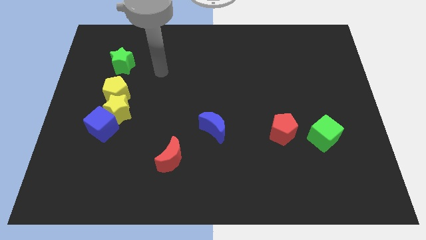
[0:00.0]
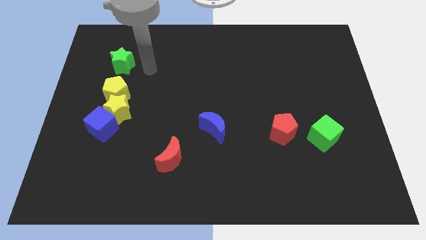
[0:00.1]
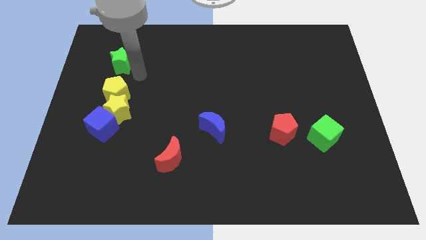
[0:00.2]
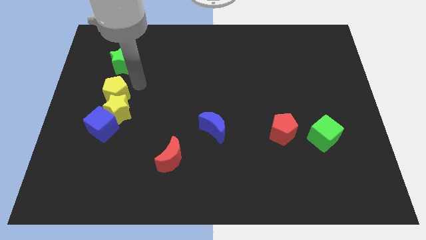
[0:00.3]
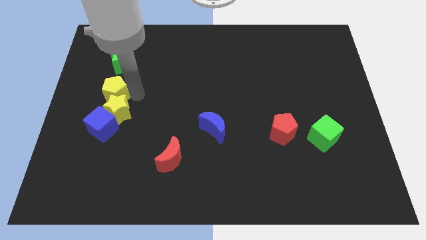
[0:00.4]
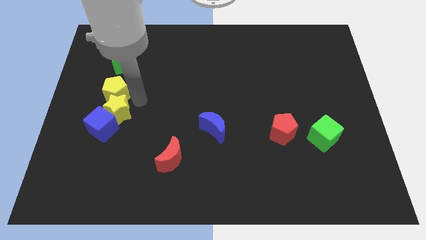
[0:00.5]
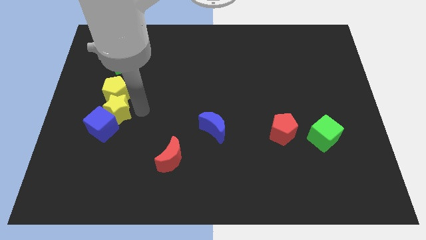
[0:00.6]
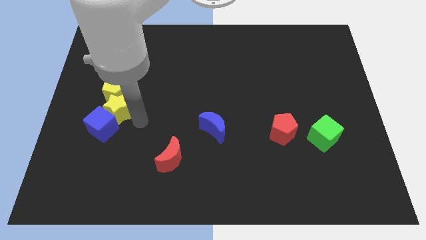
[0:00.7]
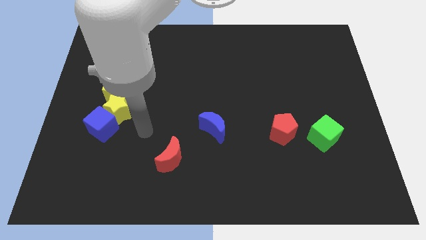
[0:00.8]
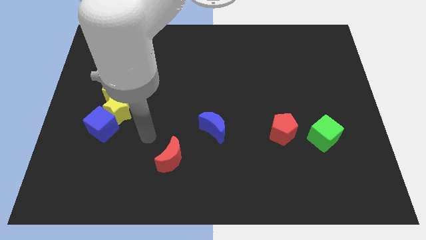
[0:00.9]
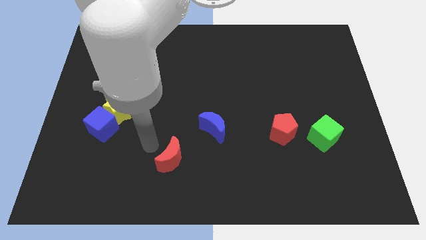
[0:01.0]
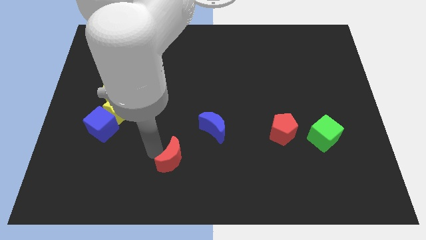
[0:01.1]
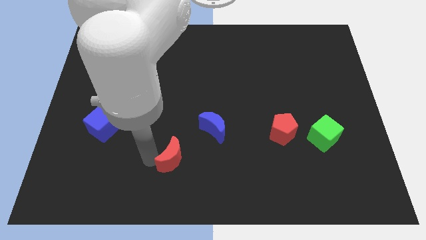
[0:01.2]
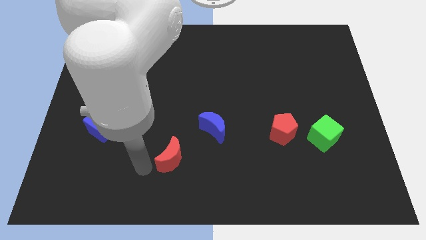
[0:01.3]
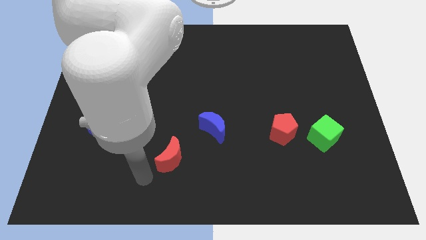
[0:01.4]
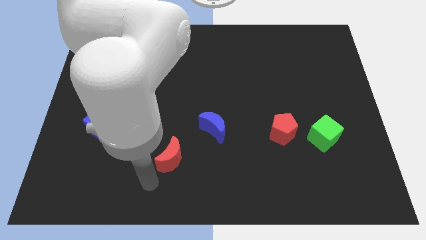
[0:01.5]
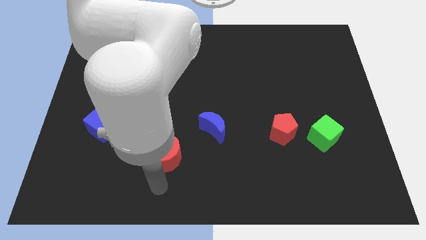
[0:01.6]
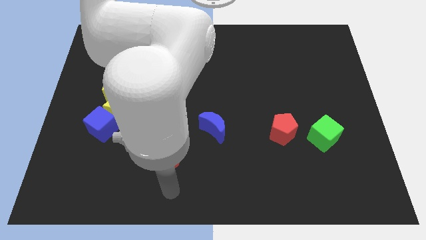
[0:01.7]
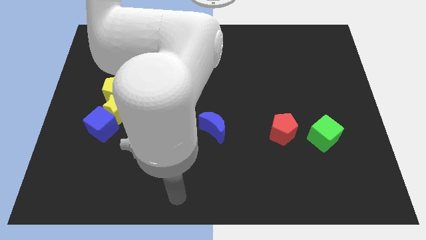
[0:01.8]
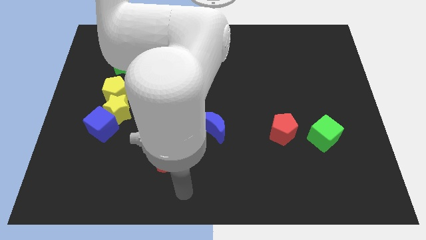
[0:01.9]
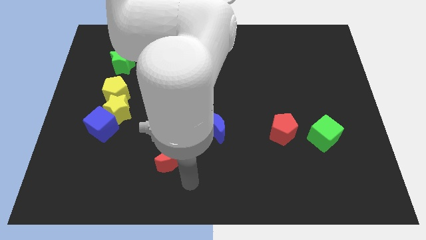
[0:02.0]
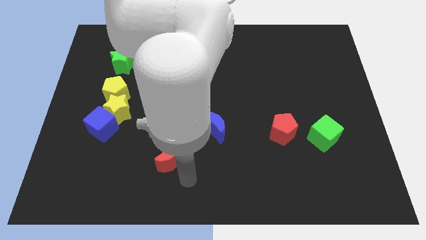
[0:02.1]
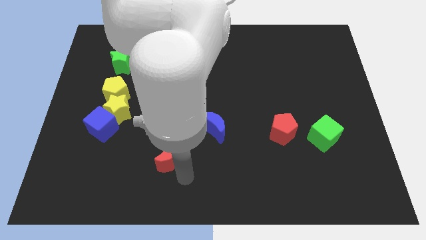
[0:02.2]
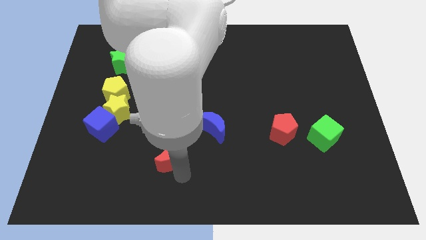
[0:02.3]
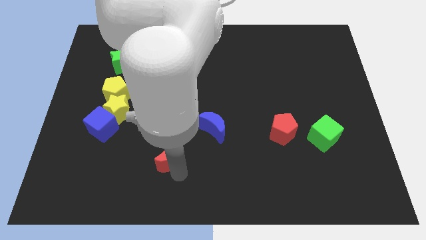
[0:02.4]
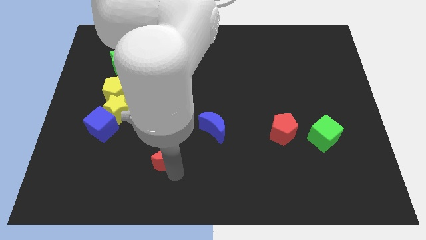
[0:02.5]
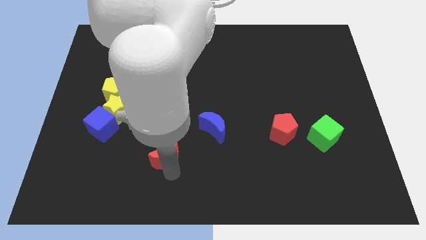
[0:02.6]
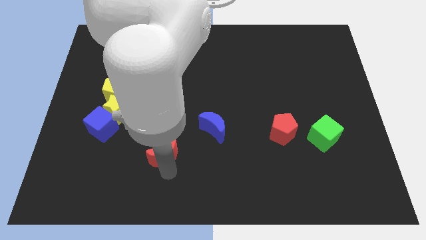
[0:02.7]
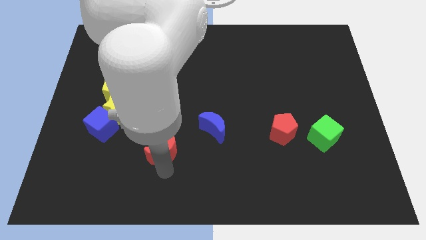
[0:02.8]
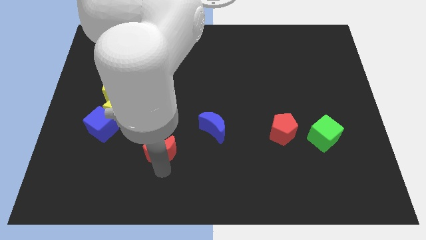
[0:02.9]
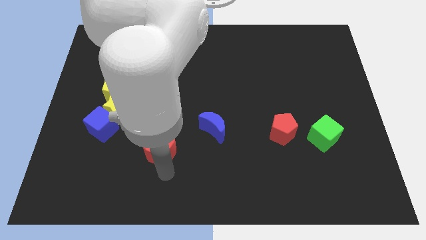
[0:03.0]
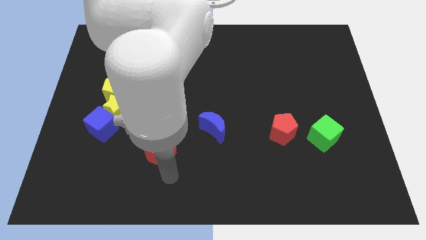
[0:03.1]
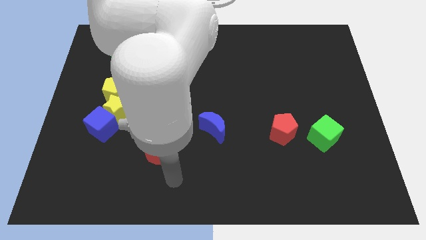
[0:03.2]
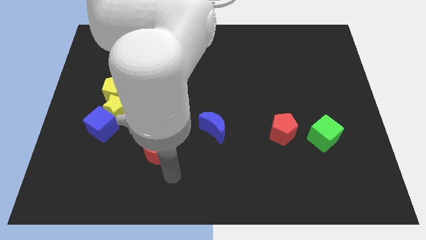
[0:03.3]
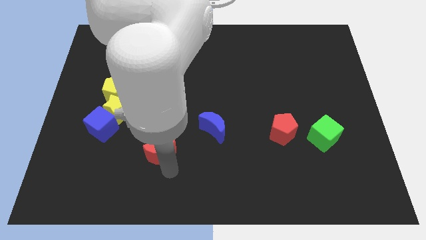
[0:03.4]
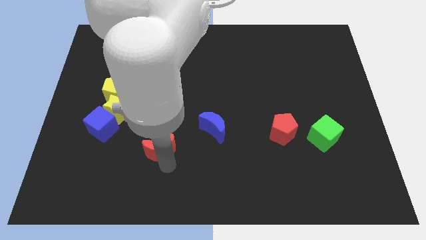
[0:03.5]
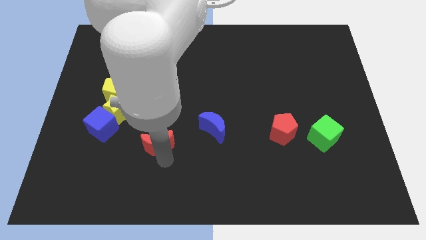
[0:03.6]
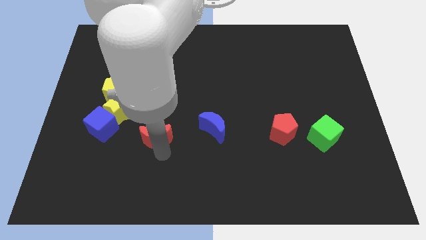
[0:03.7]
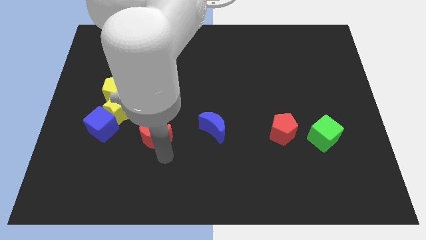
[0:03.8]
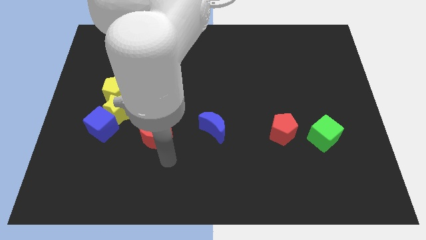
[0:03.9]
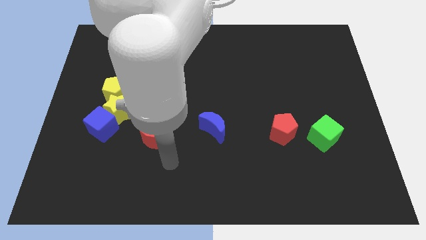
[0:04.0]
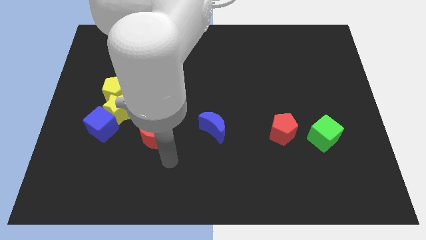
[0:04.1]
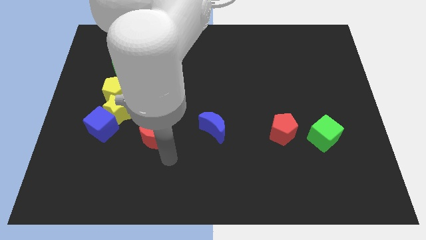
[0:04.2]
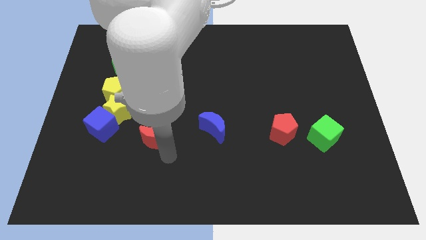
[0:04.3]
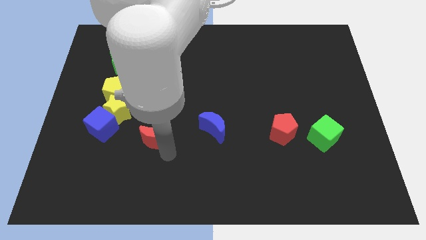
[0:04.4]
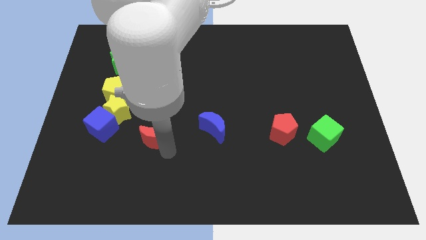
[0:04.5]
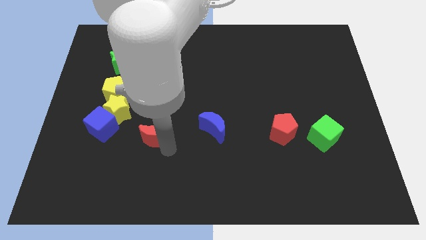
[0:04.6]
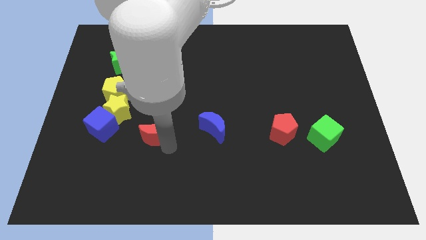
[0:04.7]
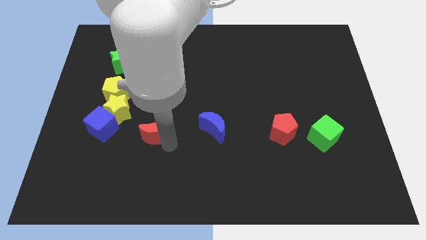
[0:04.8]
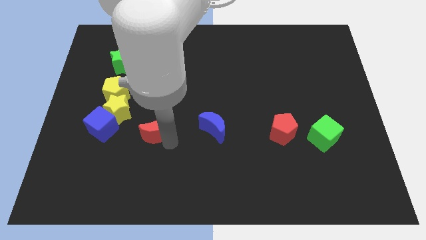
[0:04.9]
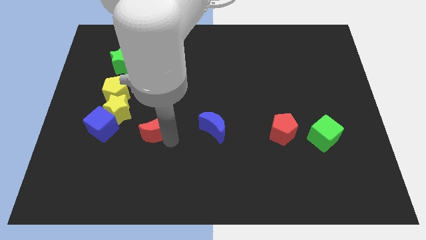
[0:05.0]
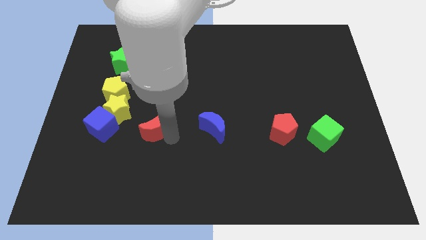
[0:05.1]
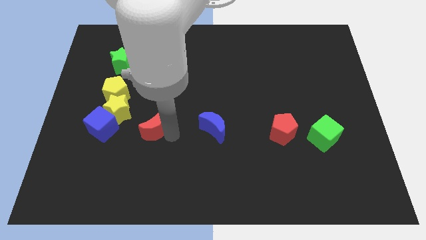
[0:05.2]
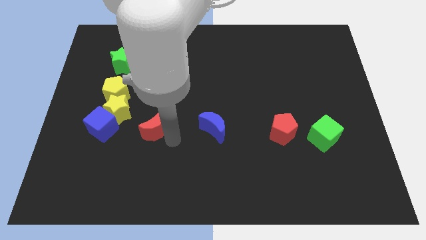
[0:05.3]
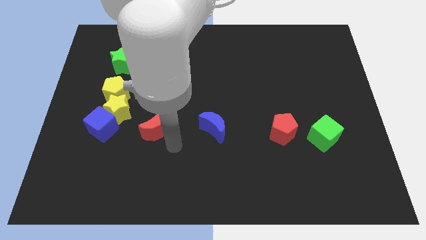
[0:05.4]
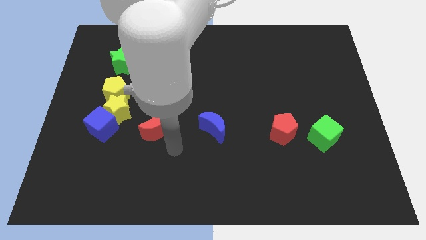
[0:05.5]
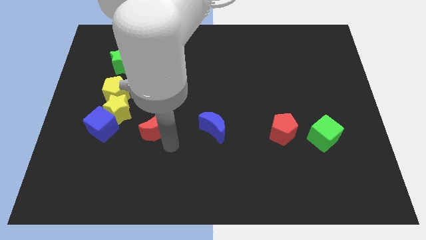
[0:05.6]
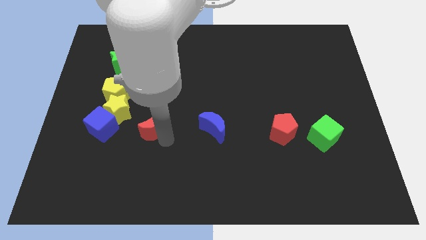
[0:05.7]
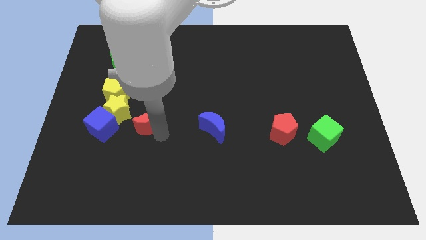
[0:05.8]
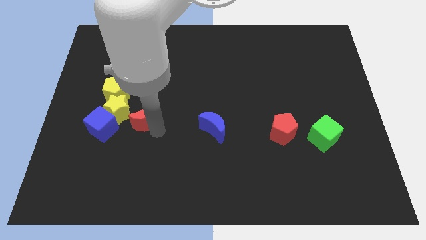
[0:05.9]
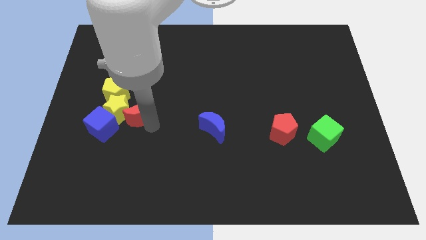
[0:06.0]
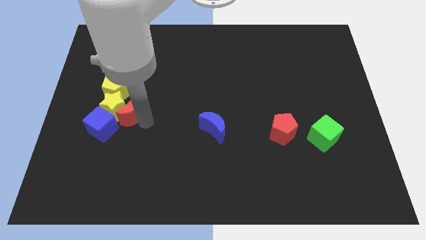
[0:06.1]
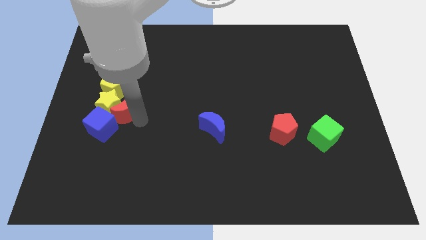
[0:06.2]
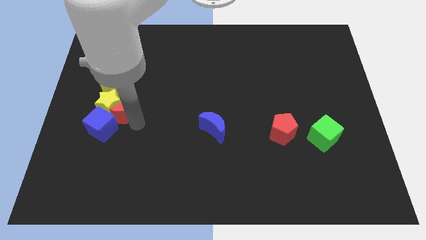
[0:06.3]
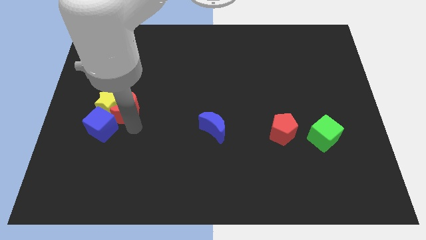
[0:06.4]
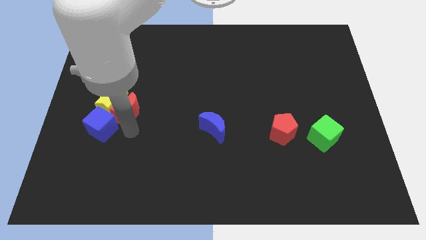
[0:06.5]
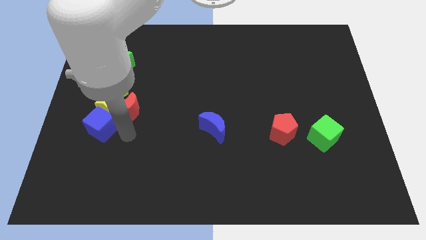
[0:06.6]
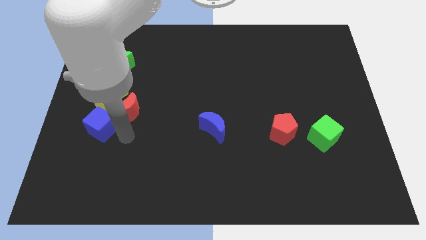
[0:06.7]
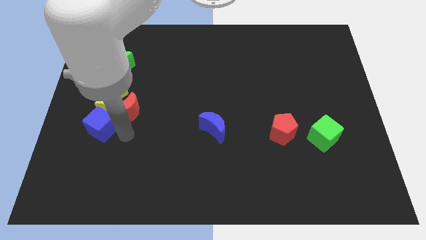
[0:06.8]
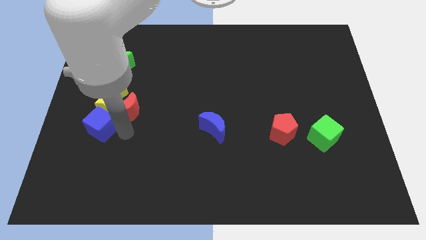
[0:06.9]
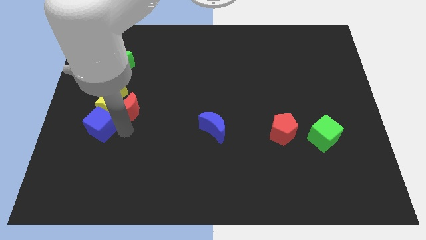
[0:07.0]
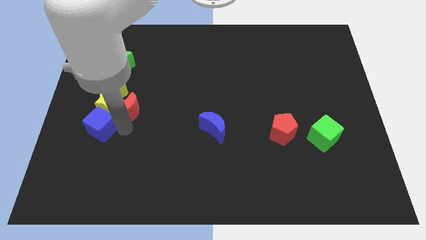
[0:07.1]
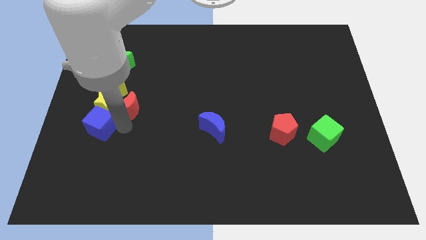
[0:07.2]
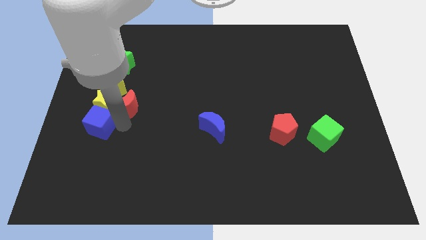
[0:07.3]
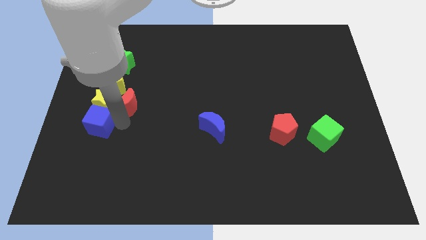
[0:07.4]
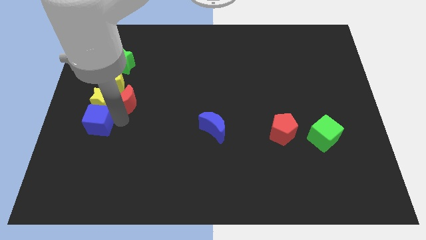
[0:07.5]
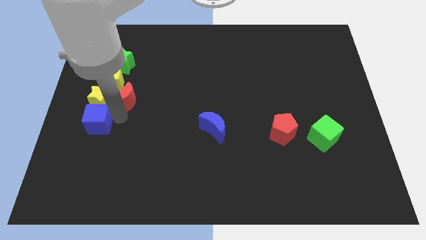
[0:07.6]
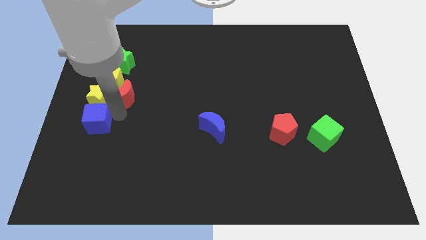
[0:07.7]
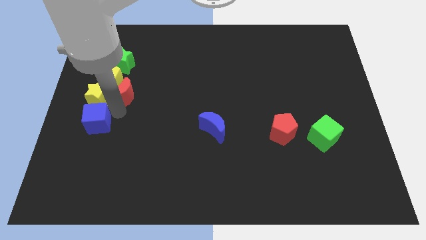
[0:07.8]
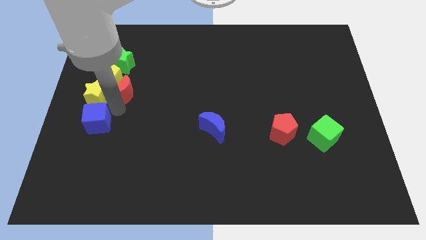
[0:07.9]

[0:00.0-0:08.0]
move the red moon next to the yellow pentagon
